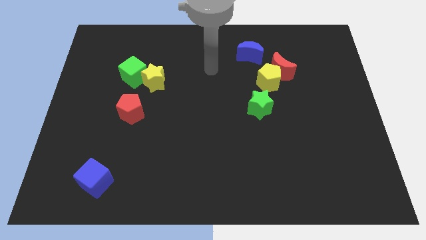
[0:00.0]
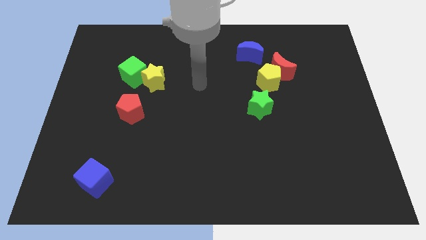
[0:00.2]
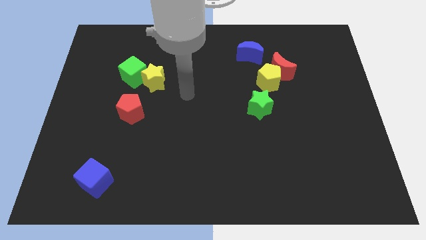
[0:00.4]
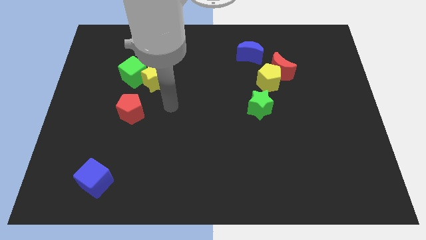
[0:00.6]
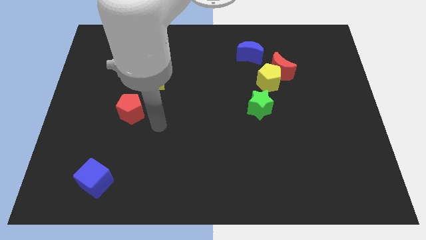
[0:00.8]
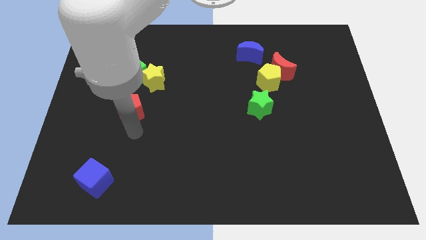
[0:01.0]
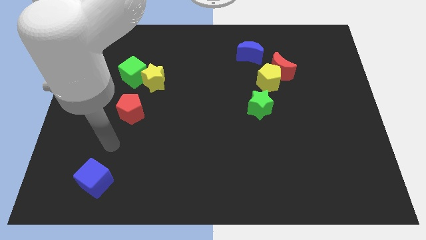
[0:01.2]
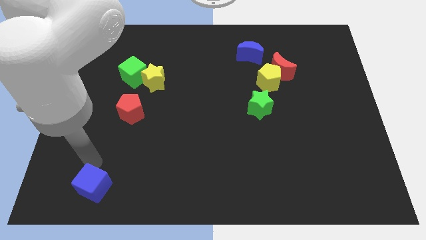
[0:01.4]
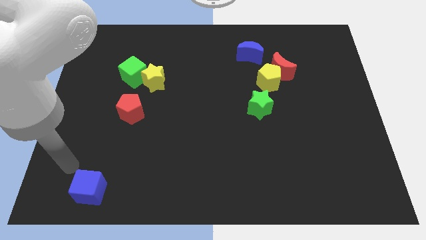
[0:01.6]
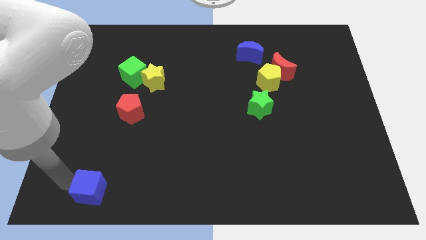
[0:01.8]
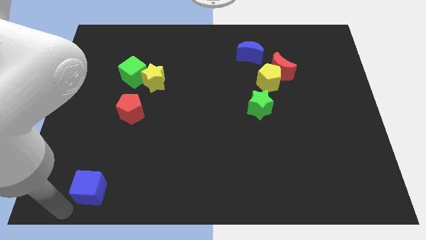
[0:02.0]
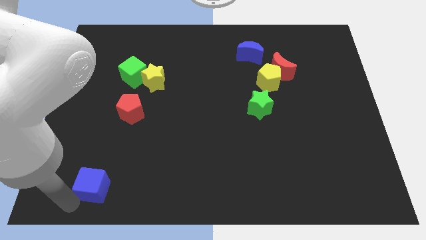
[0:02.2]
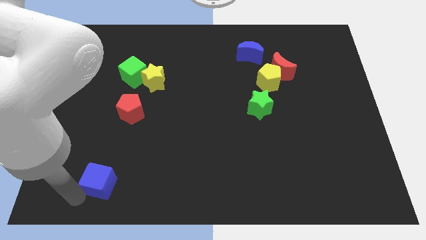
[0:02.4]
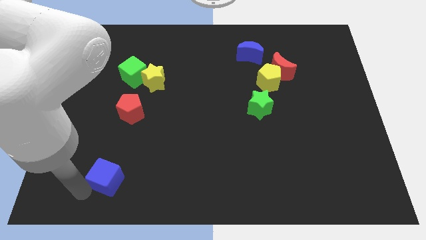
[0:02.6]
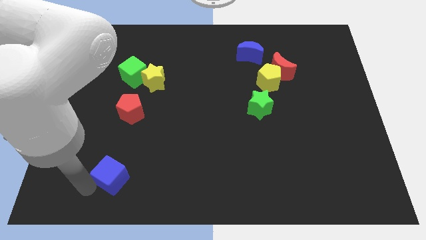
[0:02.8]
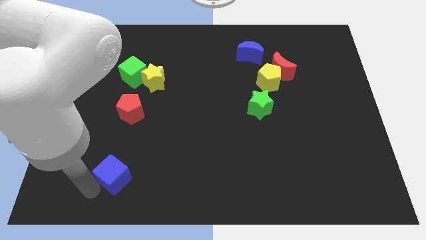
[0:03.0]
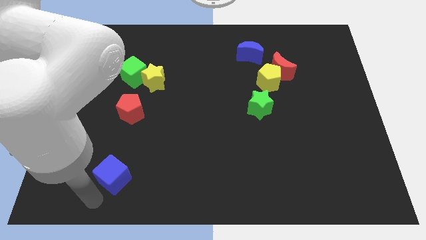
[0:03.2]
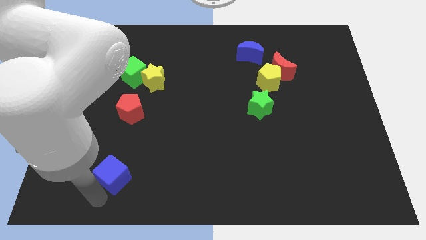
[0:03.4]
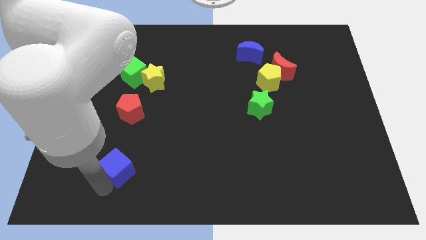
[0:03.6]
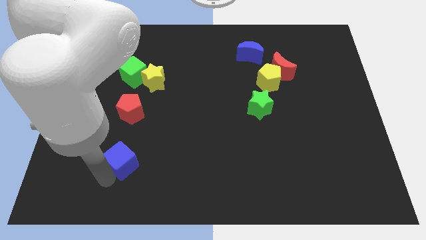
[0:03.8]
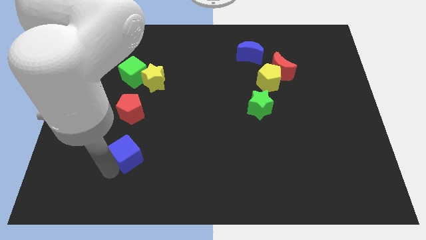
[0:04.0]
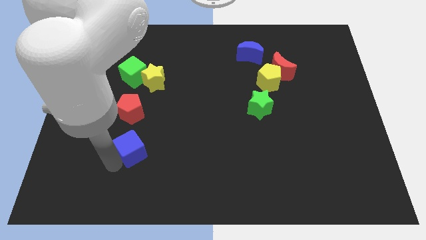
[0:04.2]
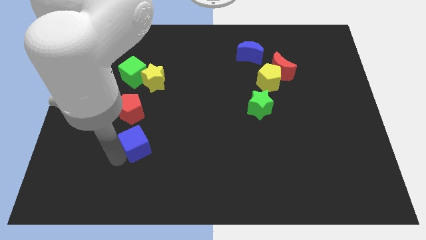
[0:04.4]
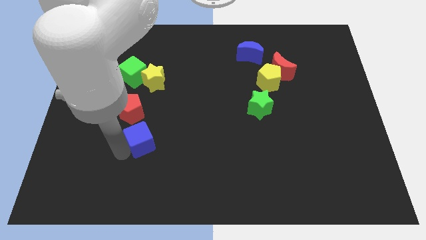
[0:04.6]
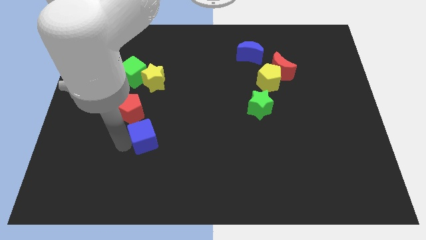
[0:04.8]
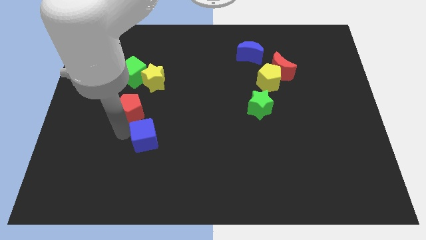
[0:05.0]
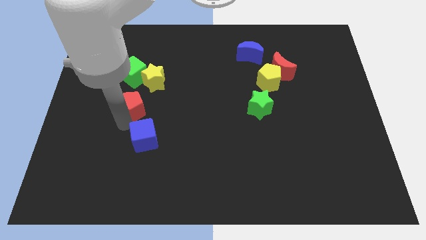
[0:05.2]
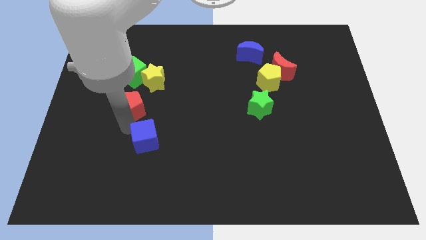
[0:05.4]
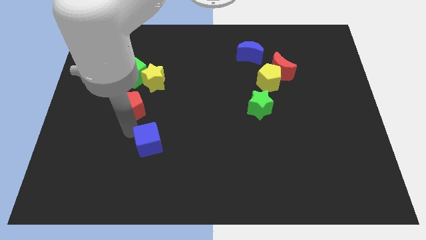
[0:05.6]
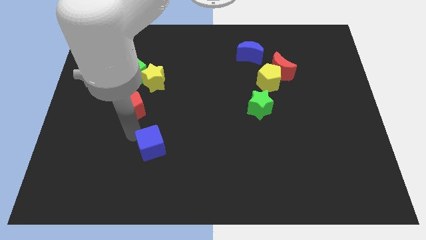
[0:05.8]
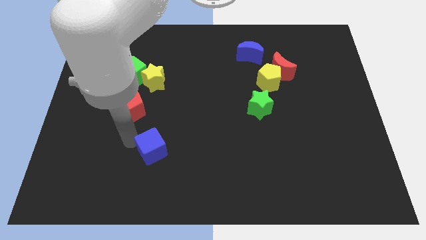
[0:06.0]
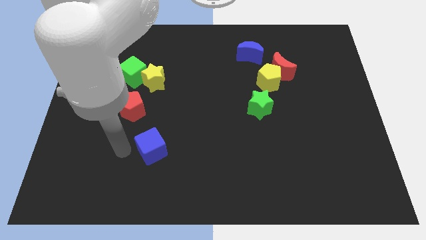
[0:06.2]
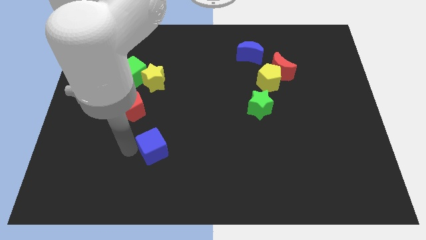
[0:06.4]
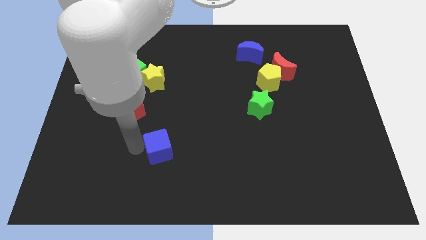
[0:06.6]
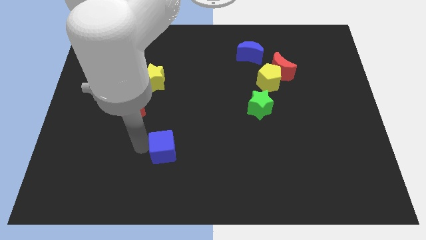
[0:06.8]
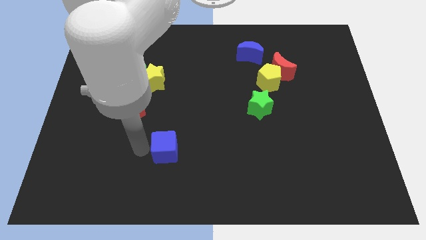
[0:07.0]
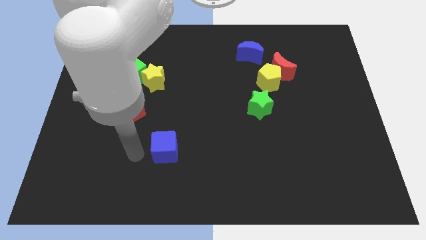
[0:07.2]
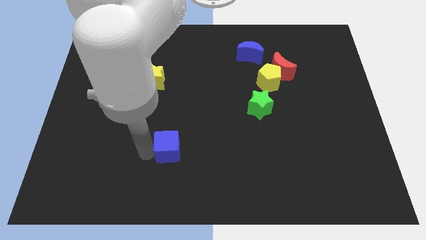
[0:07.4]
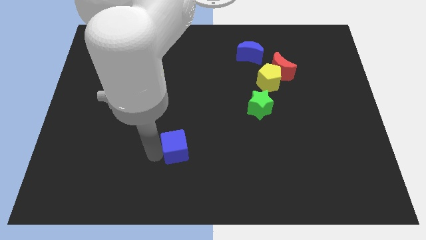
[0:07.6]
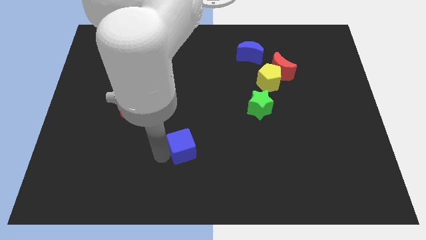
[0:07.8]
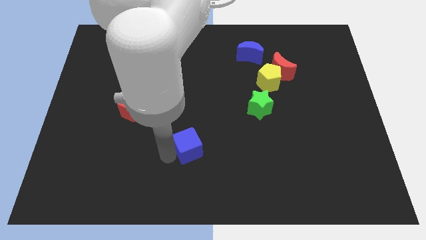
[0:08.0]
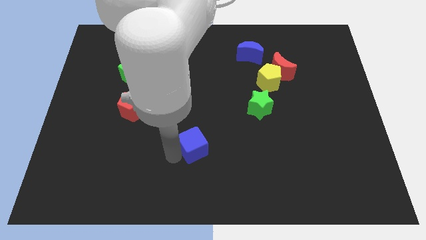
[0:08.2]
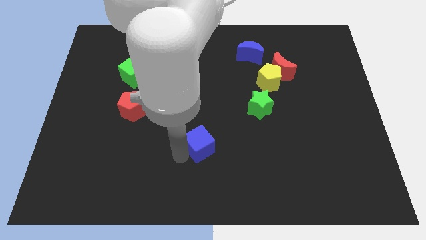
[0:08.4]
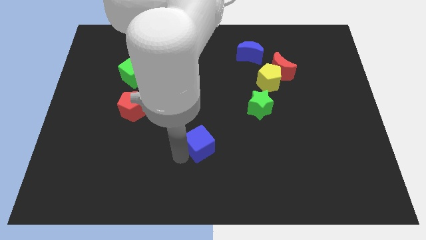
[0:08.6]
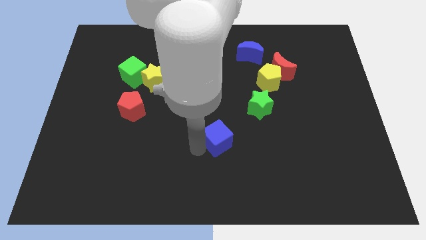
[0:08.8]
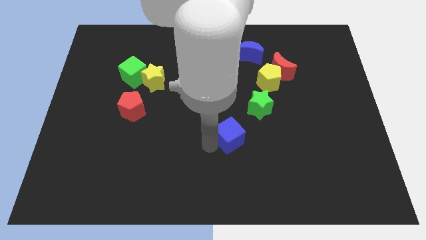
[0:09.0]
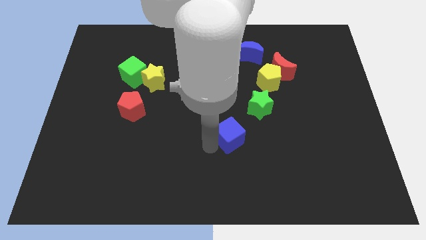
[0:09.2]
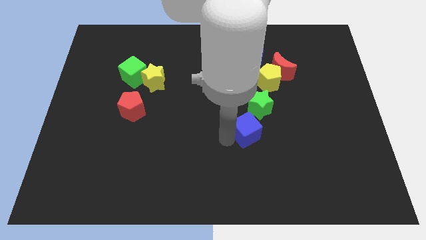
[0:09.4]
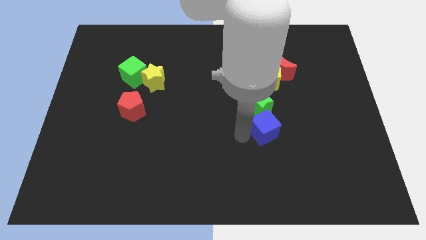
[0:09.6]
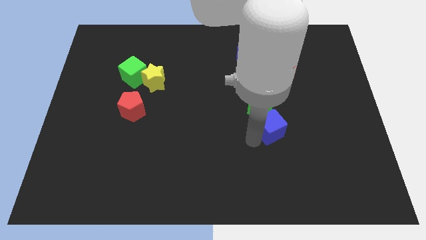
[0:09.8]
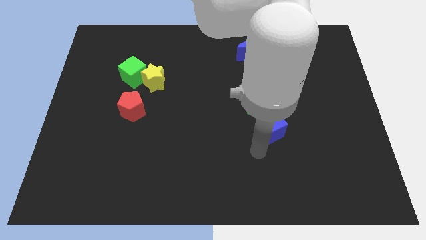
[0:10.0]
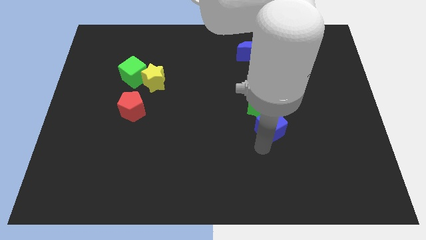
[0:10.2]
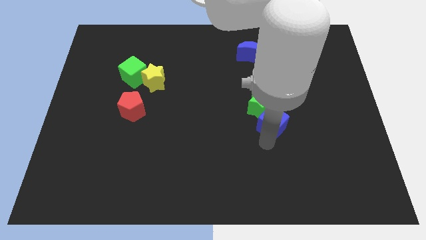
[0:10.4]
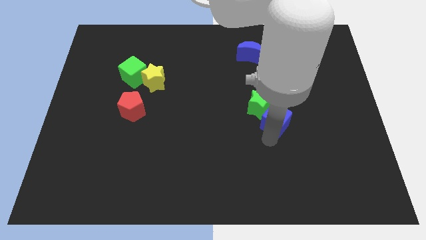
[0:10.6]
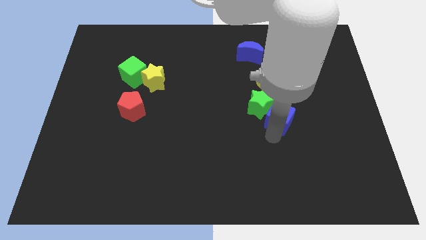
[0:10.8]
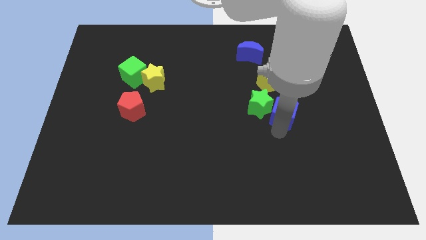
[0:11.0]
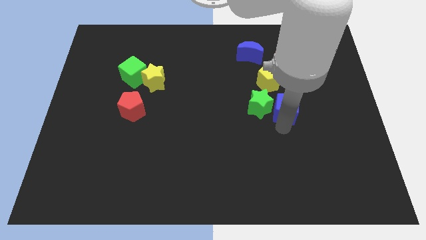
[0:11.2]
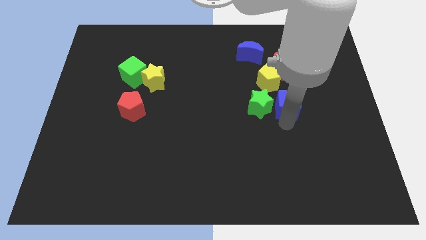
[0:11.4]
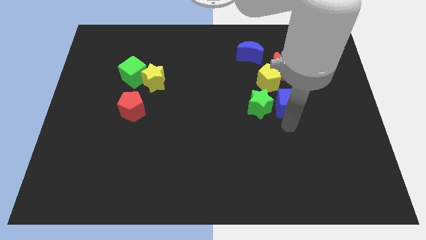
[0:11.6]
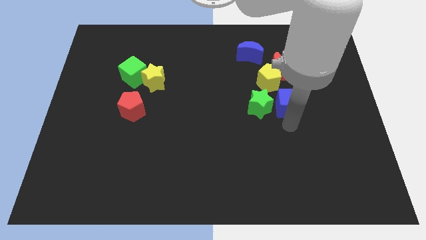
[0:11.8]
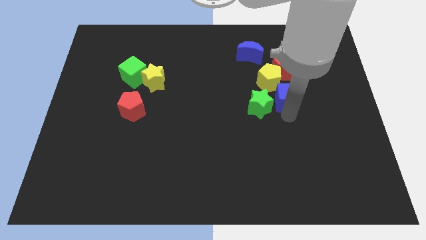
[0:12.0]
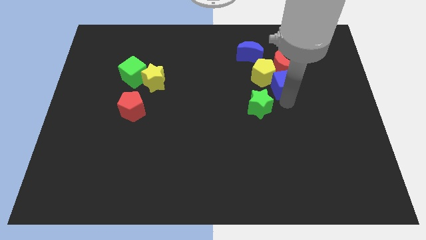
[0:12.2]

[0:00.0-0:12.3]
put the blue cube towards the red moon

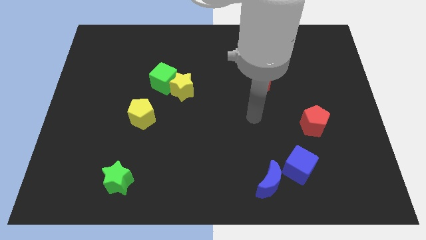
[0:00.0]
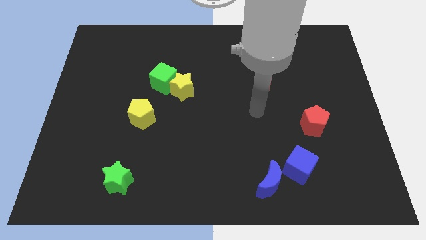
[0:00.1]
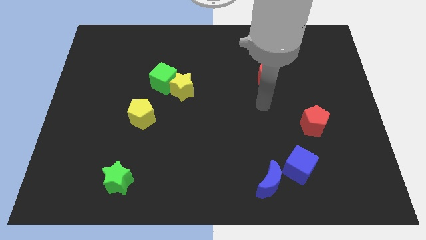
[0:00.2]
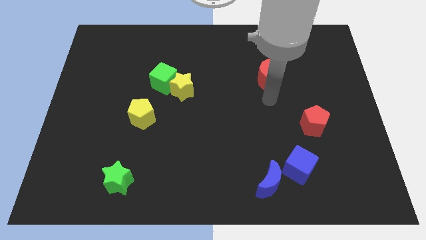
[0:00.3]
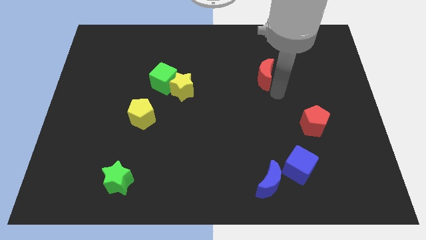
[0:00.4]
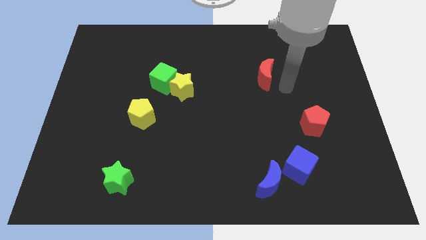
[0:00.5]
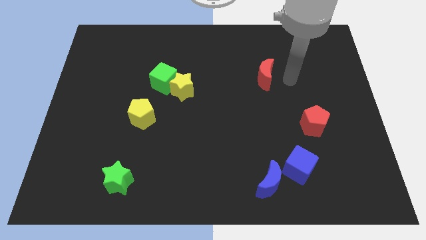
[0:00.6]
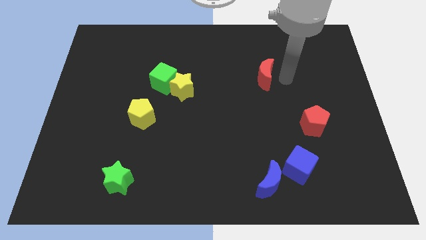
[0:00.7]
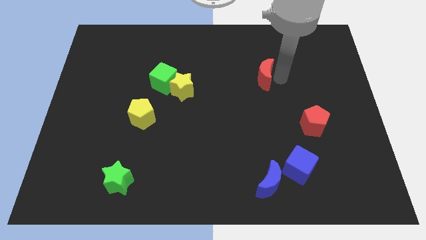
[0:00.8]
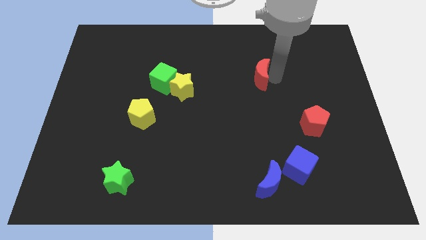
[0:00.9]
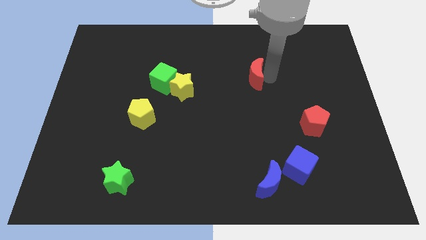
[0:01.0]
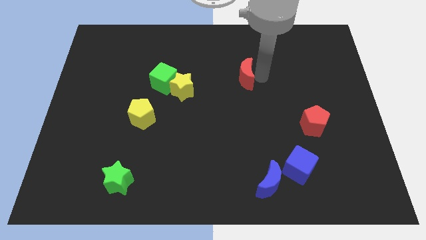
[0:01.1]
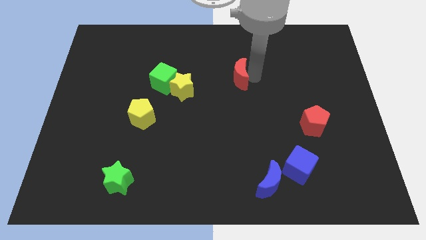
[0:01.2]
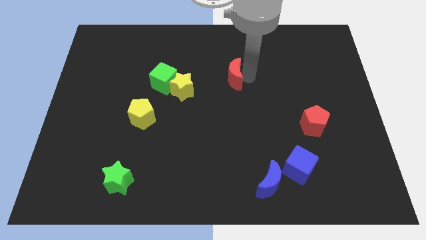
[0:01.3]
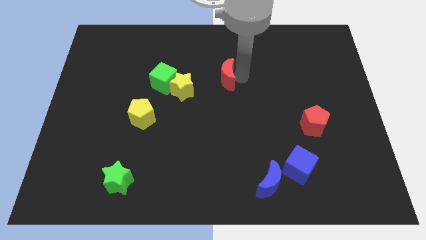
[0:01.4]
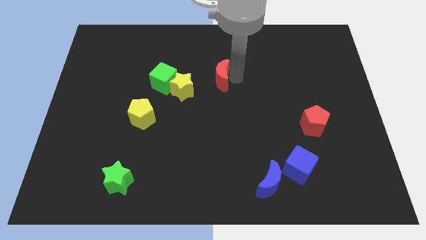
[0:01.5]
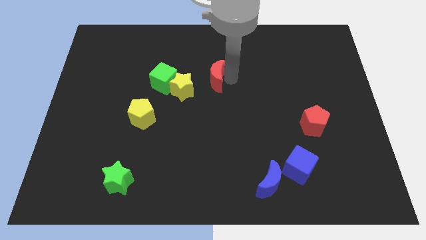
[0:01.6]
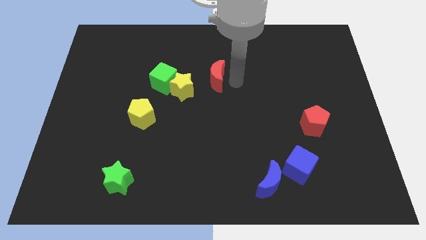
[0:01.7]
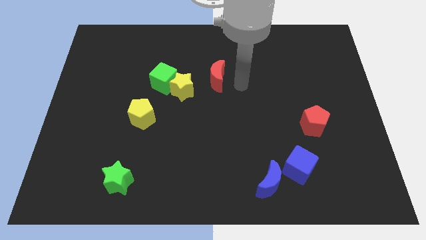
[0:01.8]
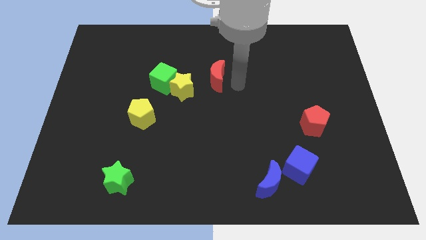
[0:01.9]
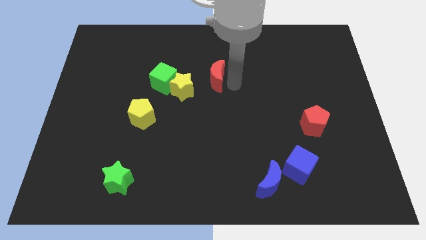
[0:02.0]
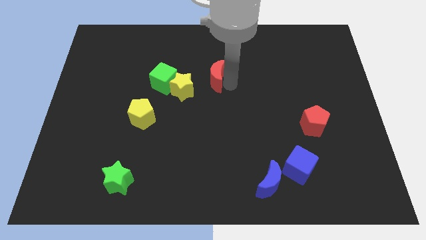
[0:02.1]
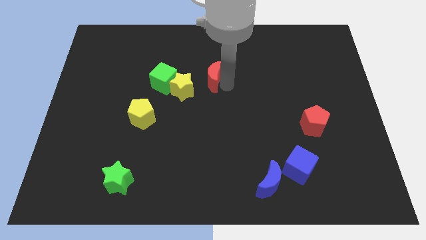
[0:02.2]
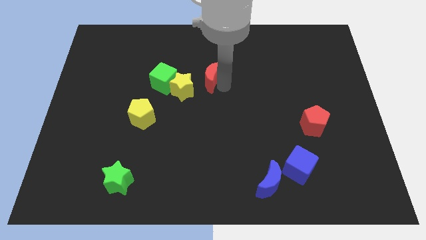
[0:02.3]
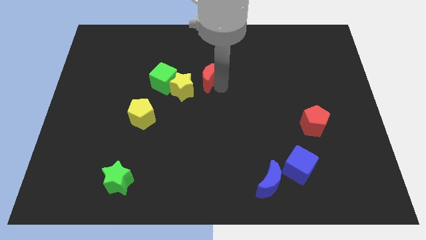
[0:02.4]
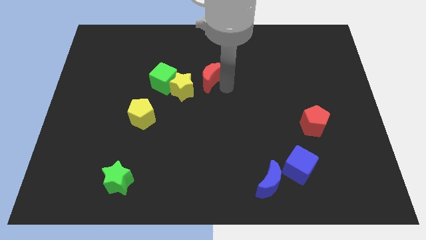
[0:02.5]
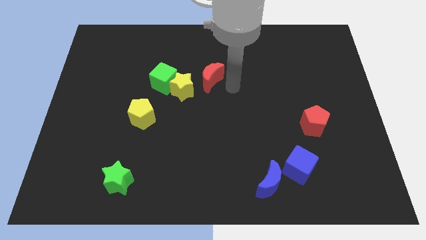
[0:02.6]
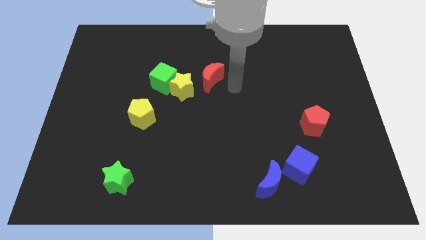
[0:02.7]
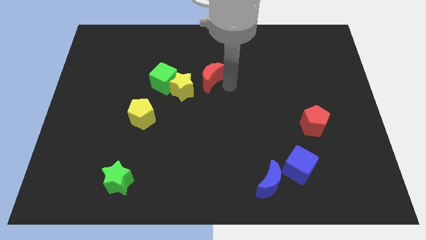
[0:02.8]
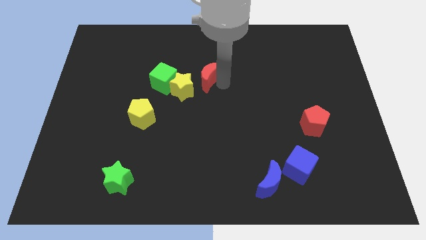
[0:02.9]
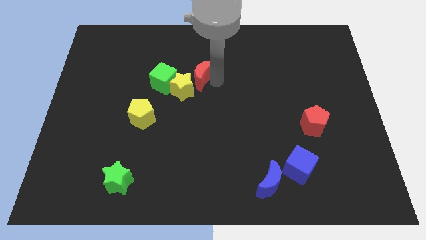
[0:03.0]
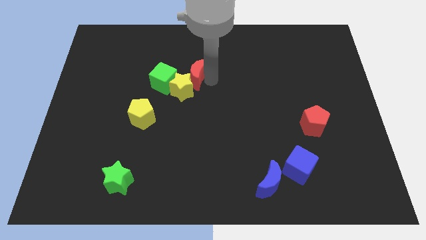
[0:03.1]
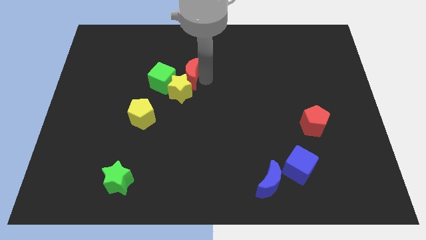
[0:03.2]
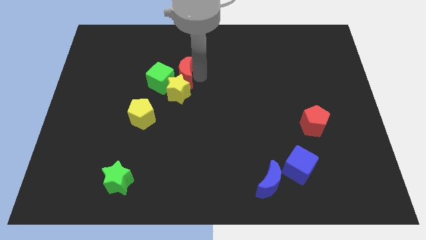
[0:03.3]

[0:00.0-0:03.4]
push the red moon close to the green cube
